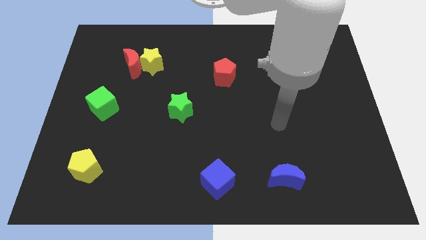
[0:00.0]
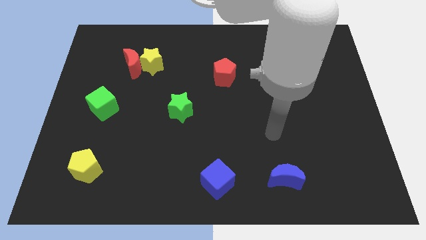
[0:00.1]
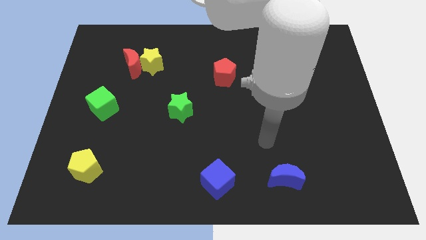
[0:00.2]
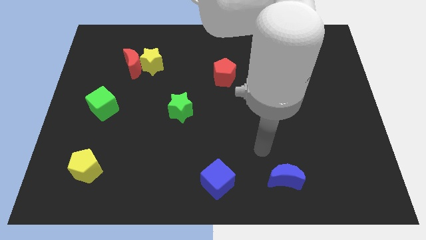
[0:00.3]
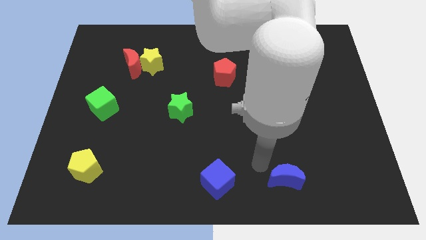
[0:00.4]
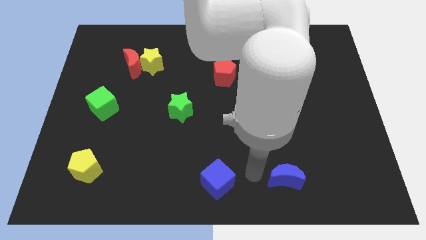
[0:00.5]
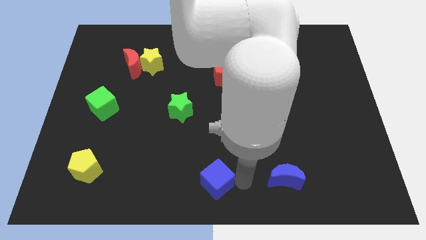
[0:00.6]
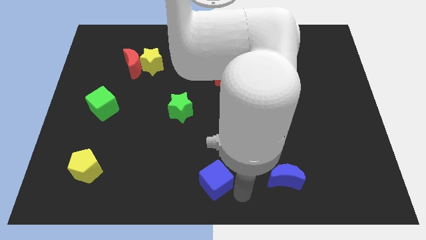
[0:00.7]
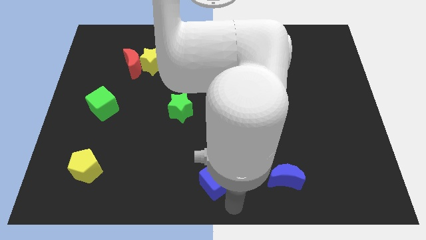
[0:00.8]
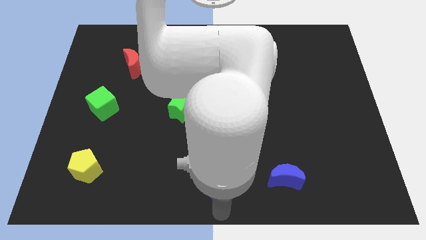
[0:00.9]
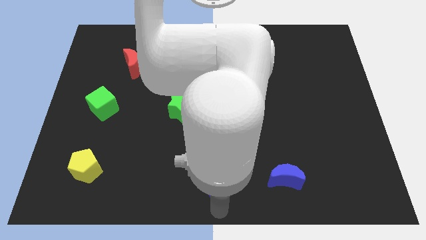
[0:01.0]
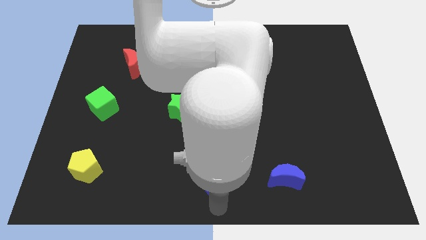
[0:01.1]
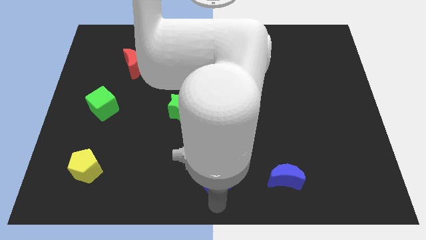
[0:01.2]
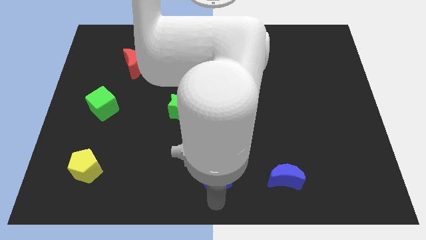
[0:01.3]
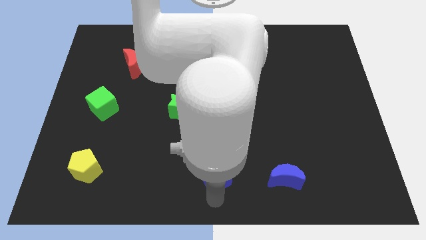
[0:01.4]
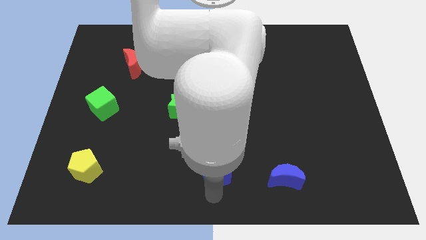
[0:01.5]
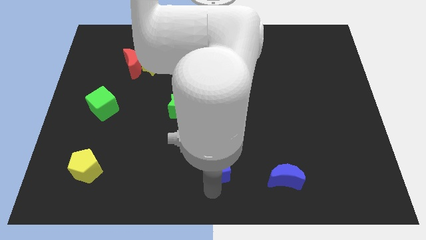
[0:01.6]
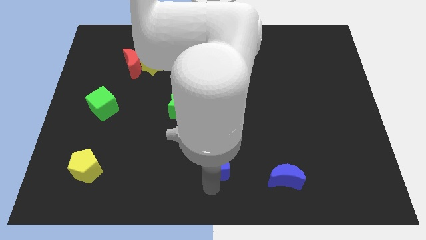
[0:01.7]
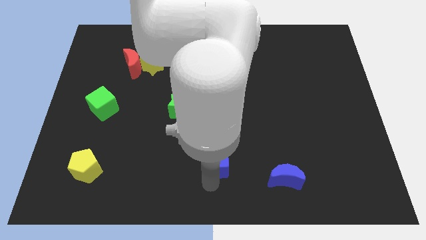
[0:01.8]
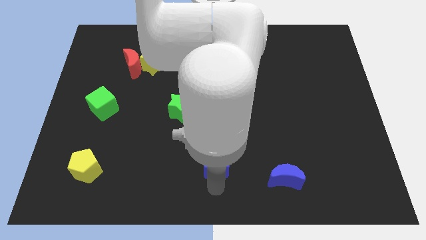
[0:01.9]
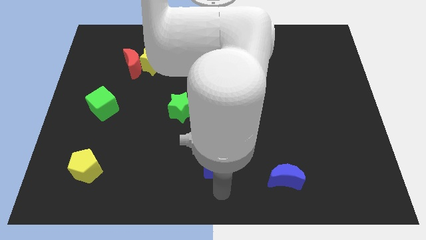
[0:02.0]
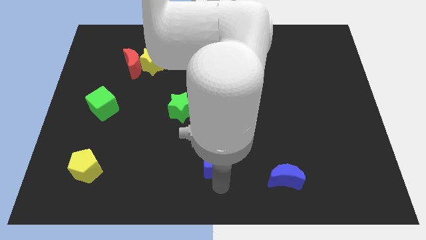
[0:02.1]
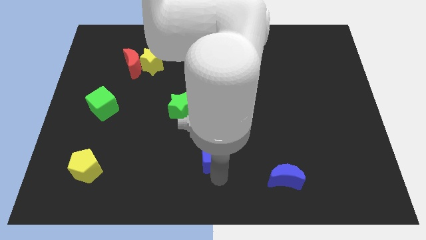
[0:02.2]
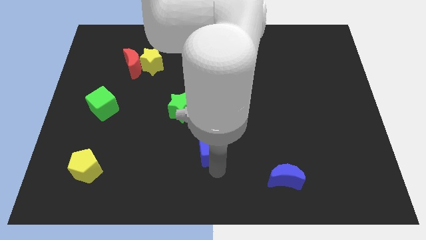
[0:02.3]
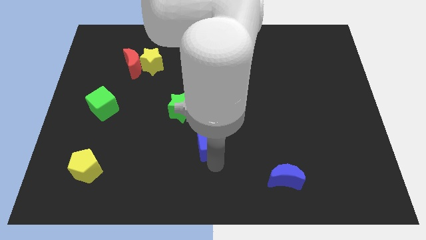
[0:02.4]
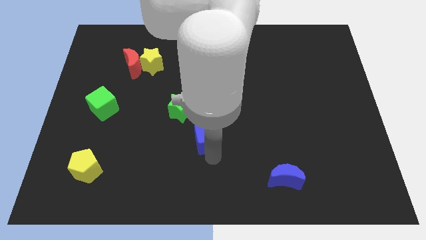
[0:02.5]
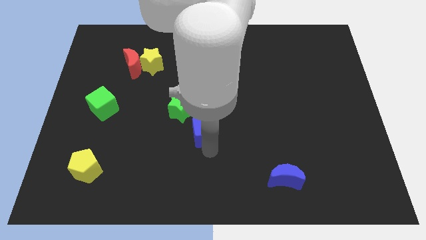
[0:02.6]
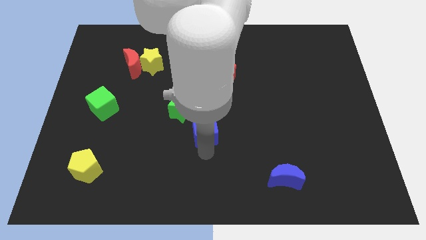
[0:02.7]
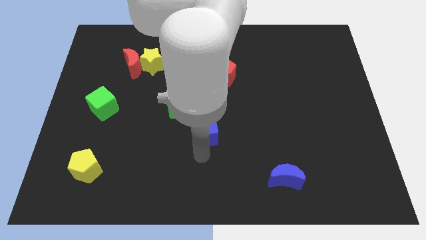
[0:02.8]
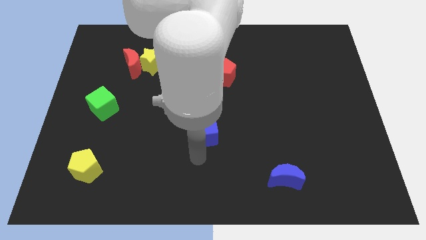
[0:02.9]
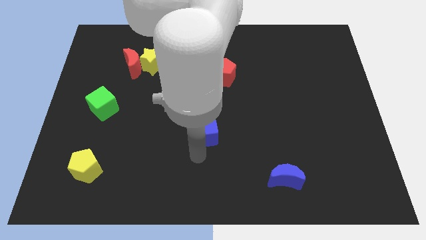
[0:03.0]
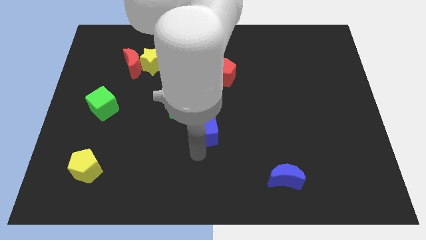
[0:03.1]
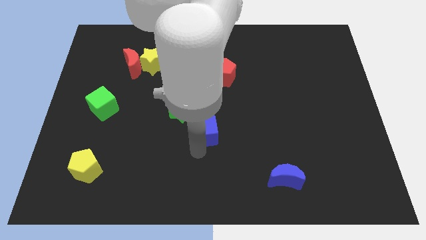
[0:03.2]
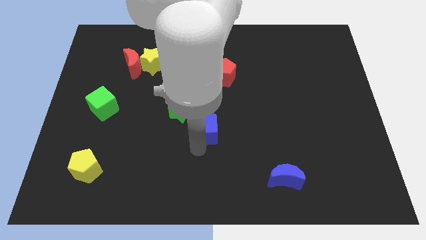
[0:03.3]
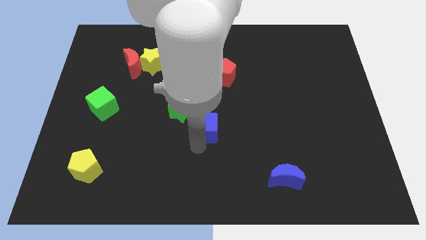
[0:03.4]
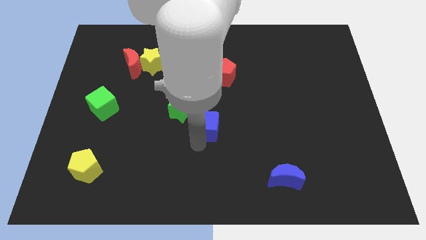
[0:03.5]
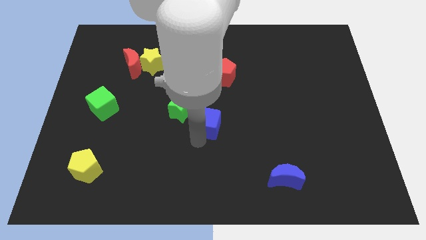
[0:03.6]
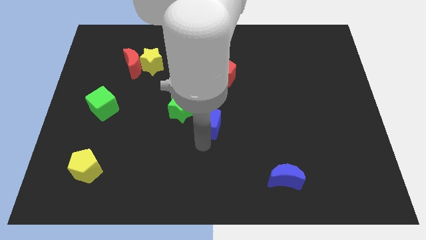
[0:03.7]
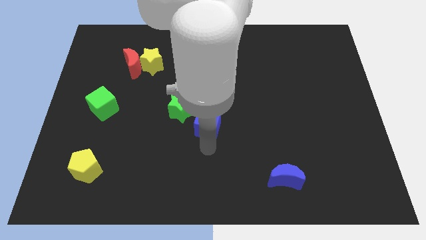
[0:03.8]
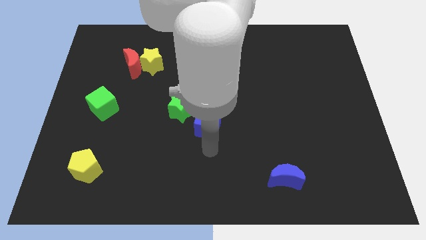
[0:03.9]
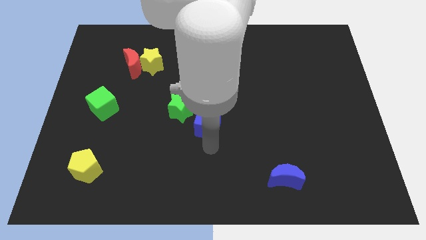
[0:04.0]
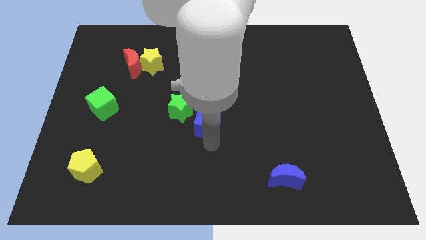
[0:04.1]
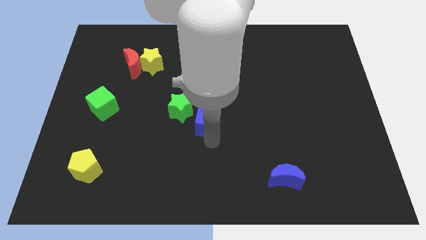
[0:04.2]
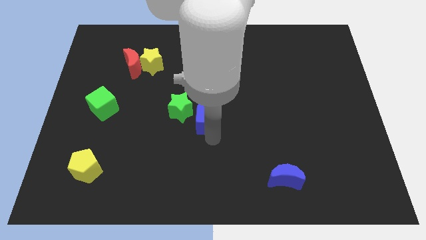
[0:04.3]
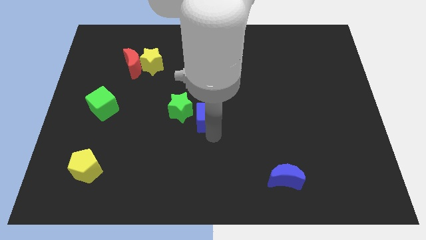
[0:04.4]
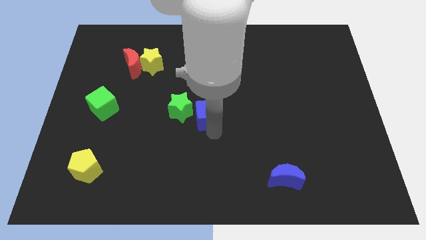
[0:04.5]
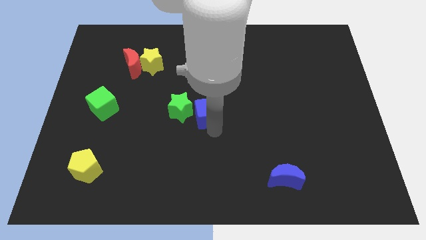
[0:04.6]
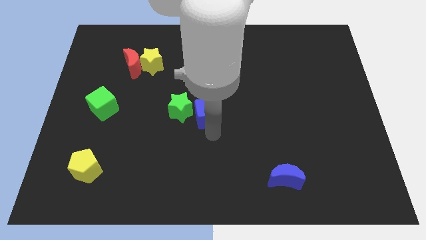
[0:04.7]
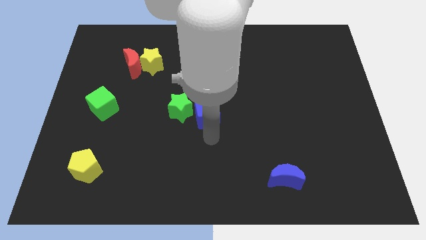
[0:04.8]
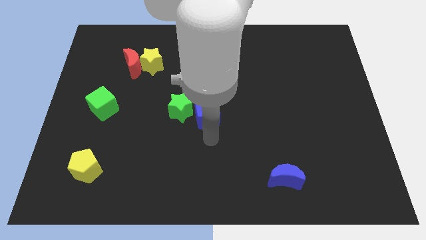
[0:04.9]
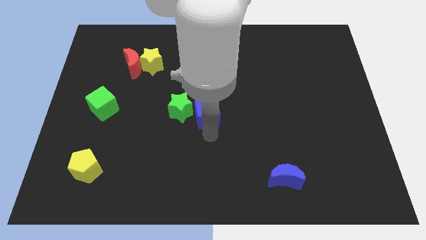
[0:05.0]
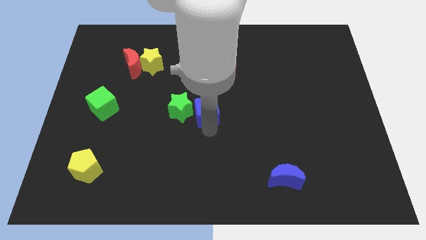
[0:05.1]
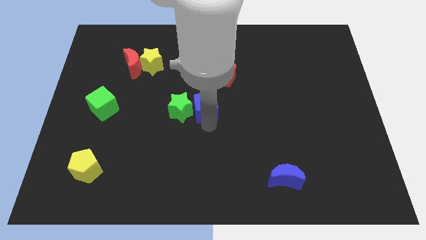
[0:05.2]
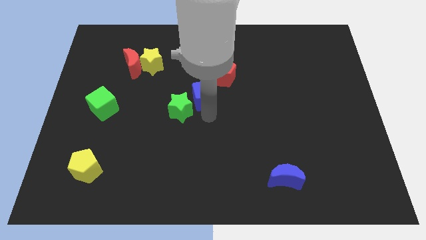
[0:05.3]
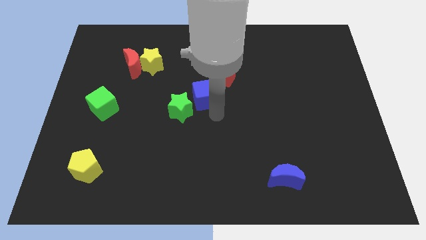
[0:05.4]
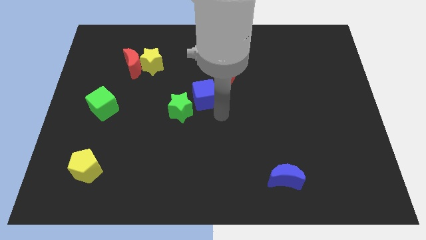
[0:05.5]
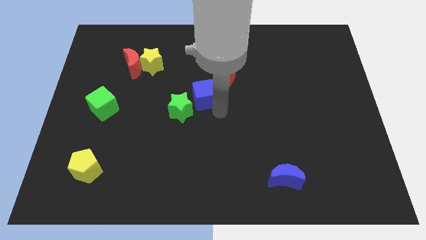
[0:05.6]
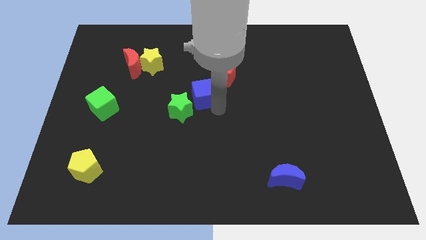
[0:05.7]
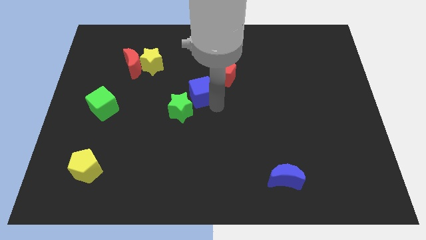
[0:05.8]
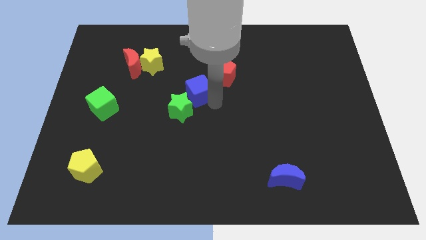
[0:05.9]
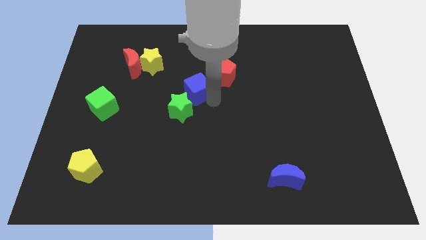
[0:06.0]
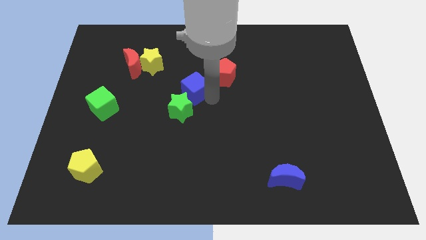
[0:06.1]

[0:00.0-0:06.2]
slide the blue cube to the left side of the red pentagon

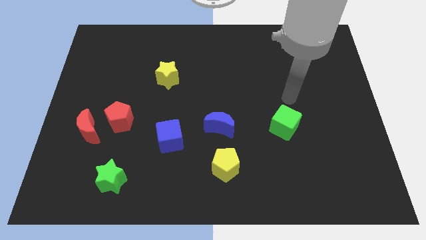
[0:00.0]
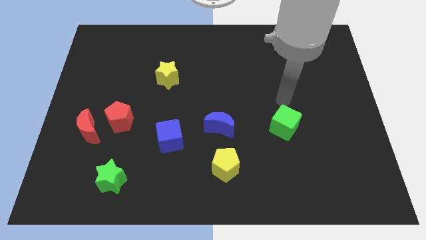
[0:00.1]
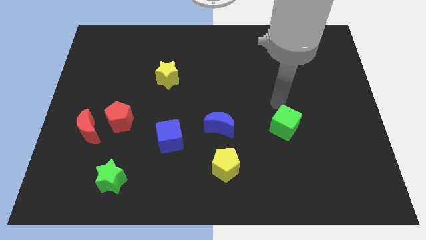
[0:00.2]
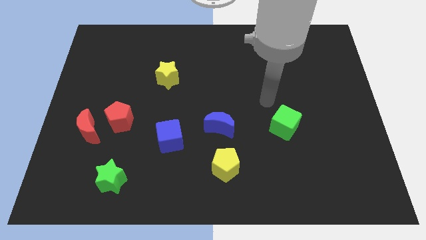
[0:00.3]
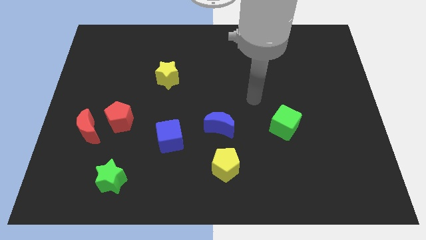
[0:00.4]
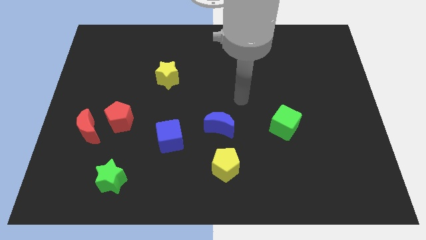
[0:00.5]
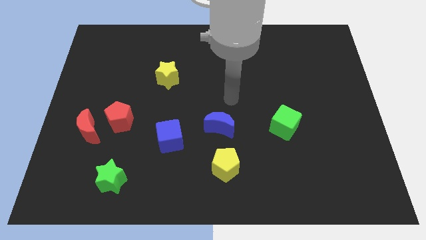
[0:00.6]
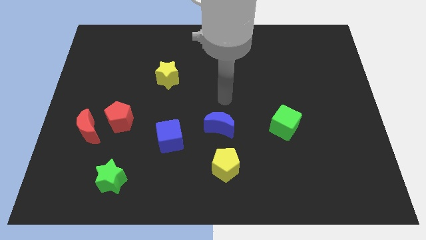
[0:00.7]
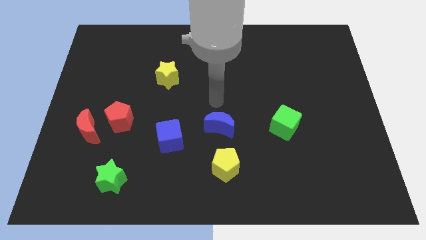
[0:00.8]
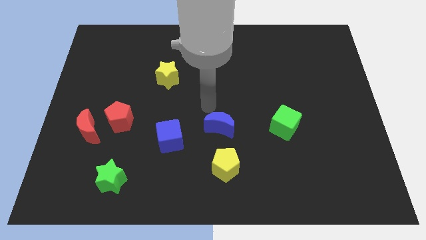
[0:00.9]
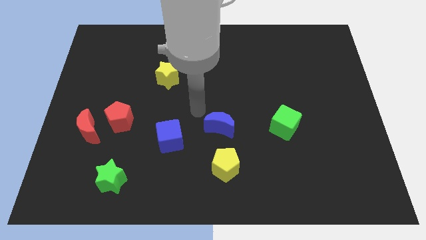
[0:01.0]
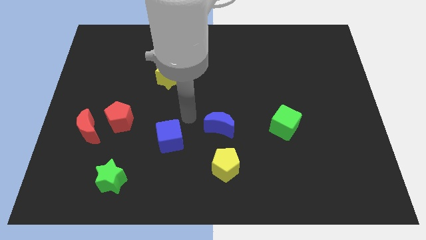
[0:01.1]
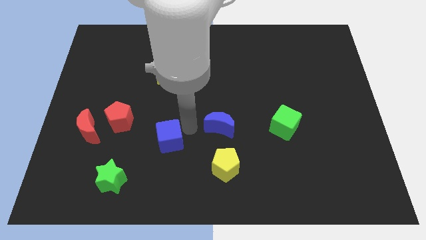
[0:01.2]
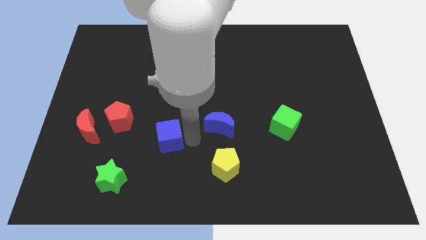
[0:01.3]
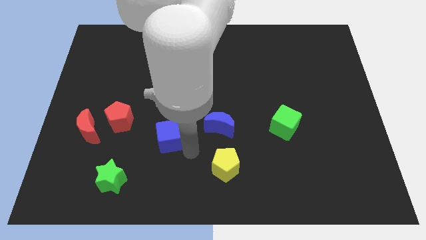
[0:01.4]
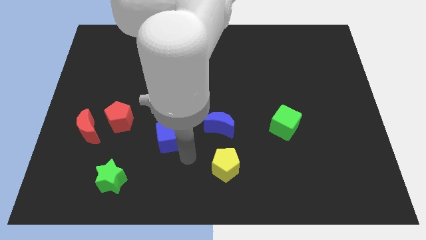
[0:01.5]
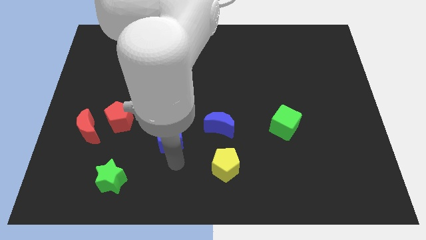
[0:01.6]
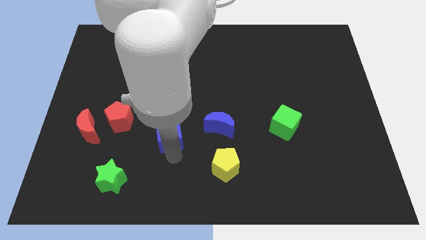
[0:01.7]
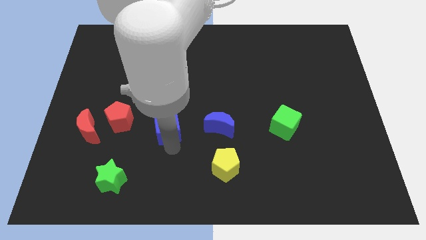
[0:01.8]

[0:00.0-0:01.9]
move the blue cube below the yellow star
